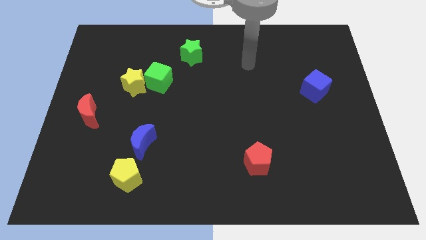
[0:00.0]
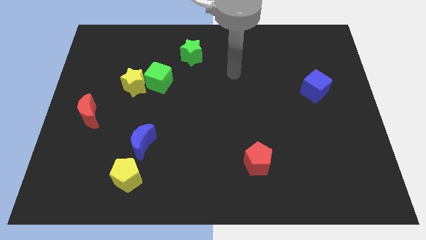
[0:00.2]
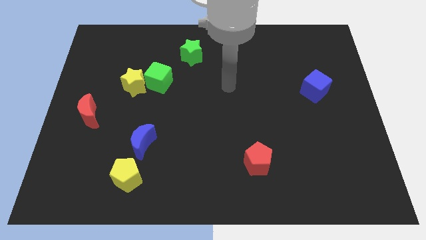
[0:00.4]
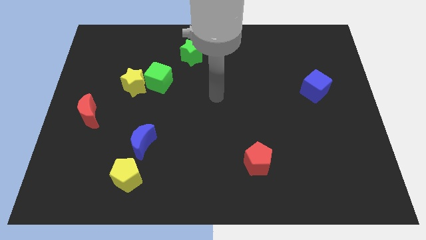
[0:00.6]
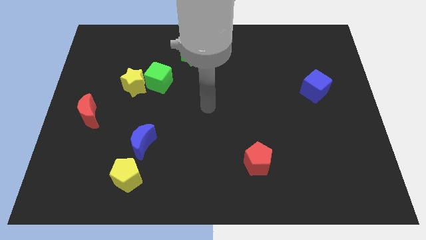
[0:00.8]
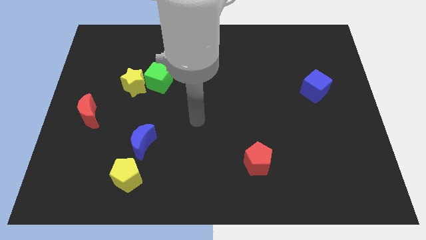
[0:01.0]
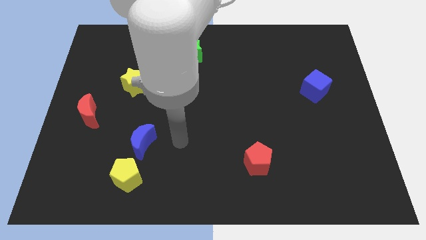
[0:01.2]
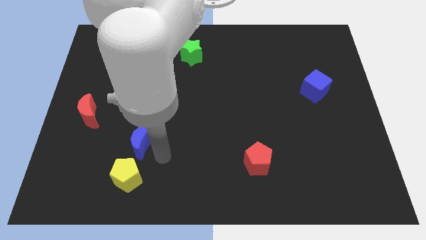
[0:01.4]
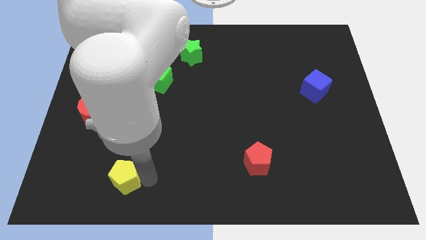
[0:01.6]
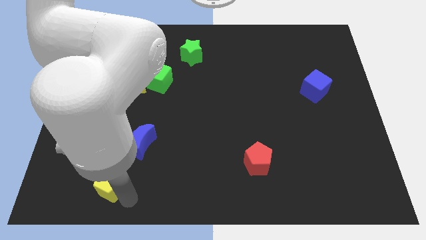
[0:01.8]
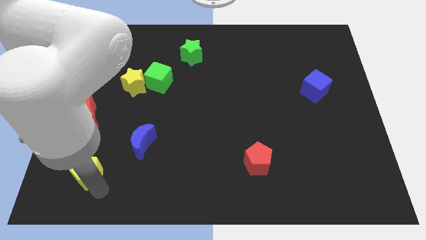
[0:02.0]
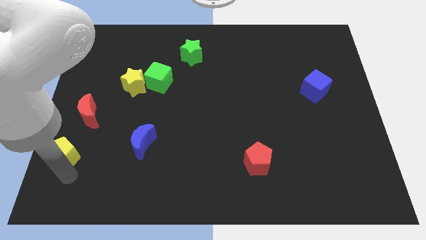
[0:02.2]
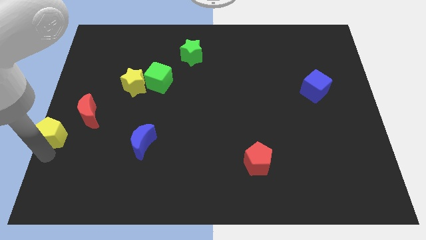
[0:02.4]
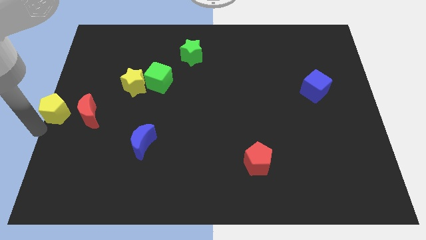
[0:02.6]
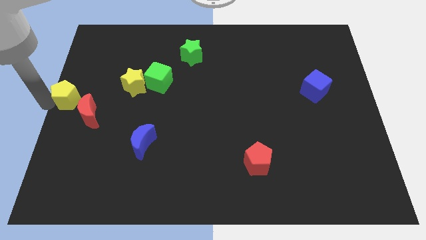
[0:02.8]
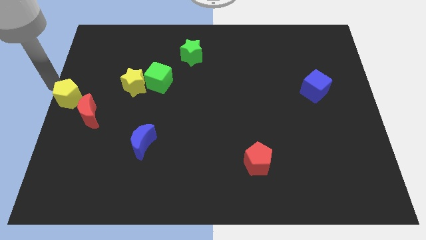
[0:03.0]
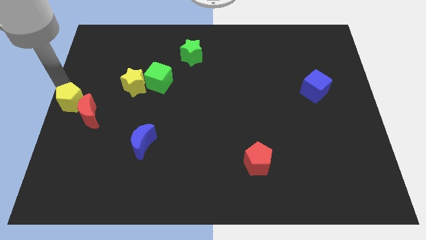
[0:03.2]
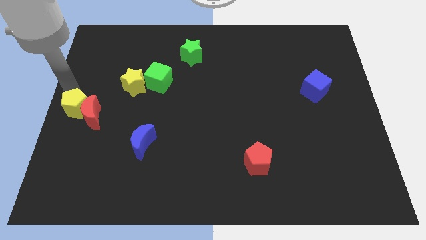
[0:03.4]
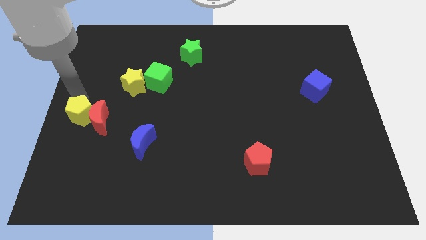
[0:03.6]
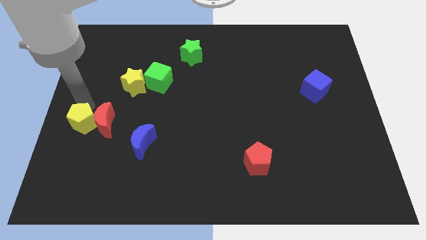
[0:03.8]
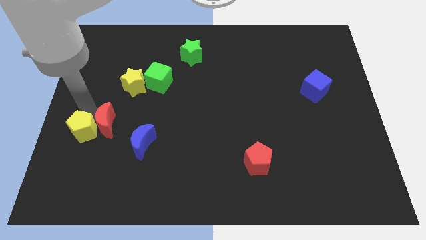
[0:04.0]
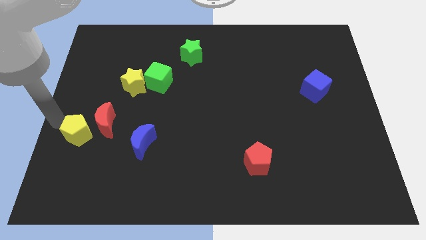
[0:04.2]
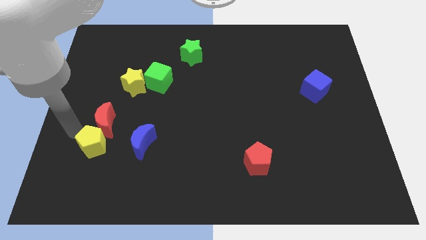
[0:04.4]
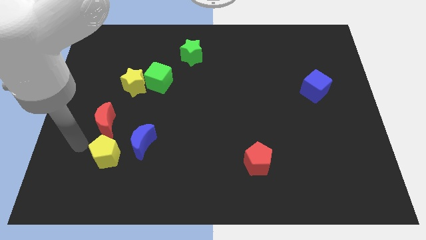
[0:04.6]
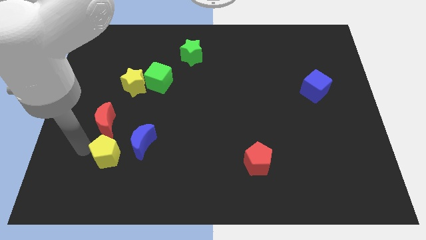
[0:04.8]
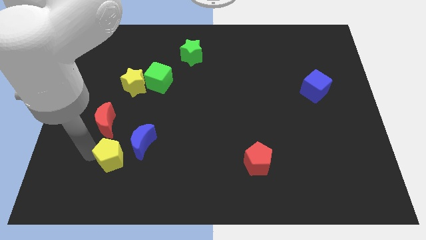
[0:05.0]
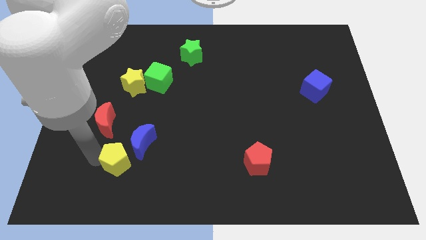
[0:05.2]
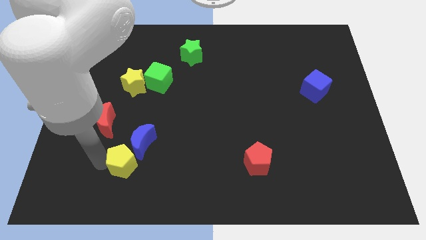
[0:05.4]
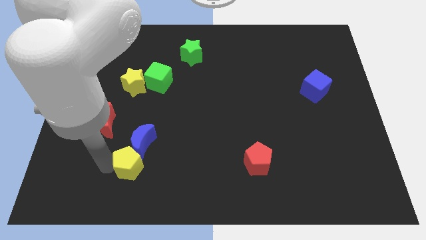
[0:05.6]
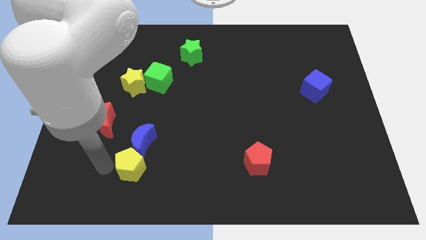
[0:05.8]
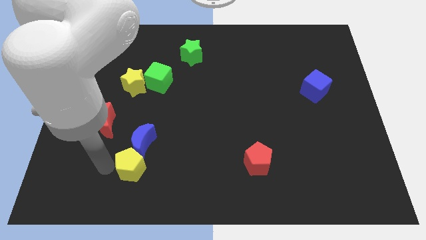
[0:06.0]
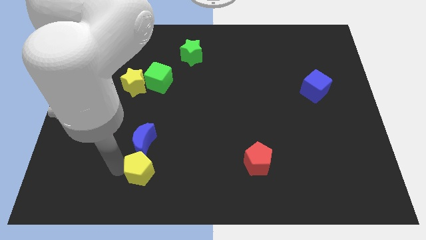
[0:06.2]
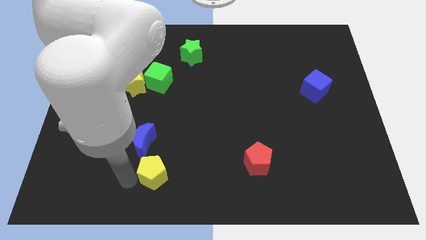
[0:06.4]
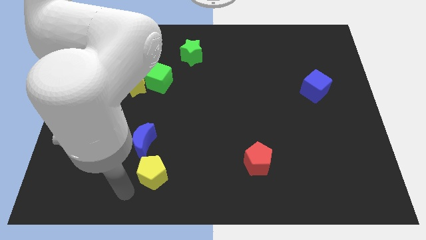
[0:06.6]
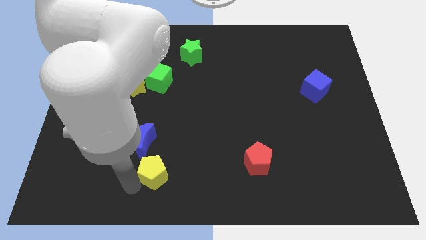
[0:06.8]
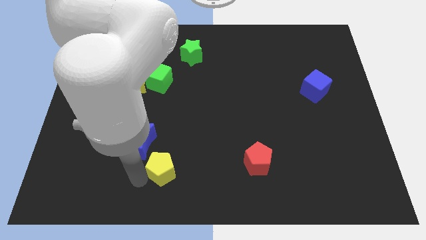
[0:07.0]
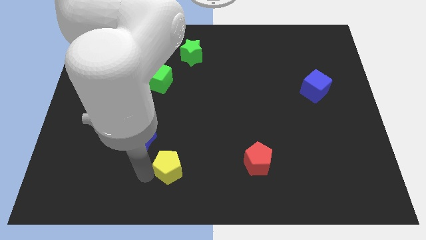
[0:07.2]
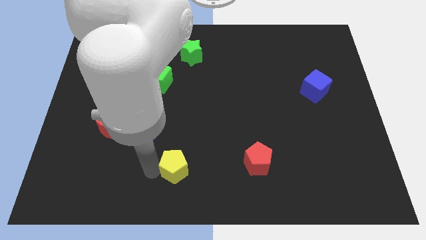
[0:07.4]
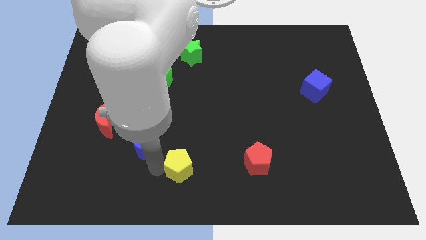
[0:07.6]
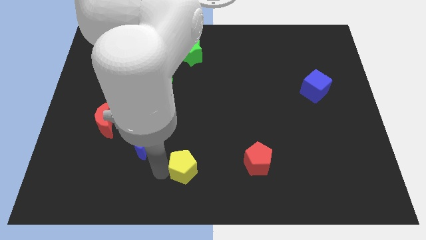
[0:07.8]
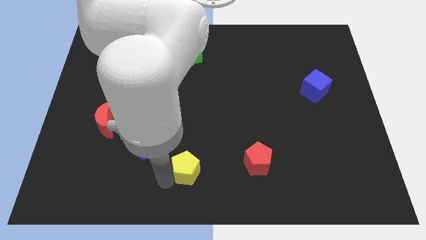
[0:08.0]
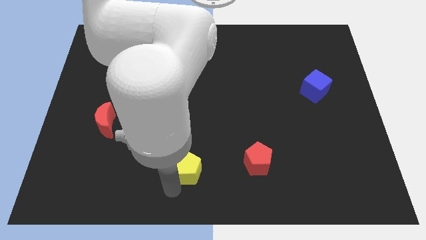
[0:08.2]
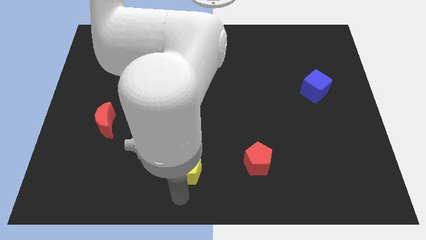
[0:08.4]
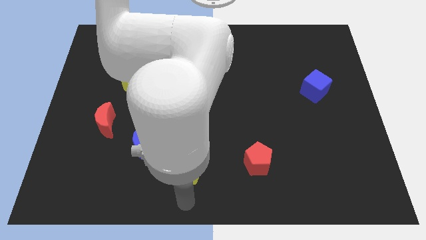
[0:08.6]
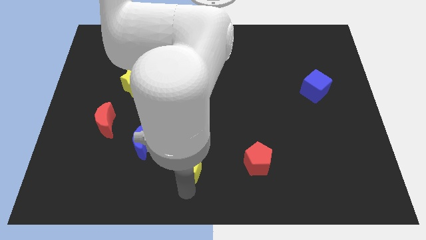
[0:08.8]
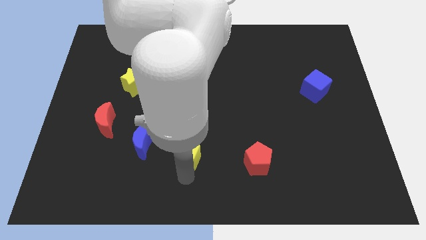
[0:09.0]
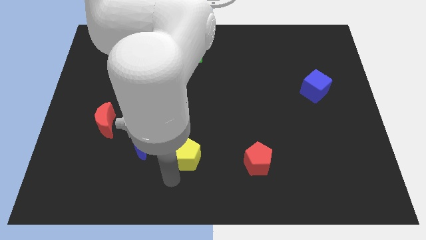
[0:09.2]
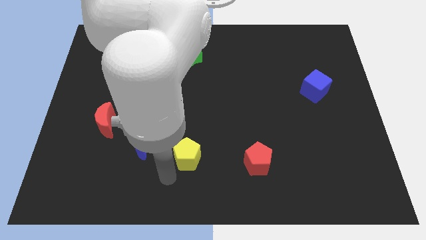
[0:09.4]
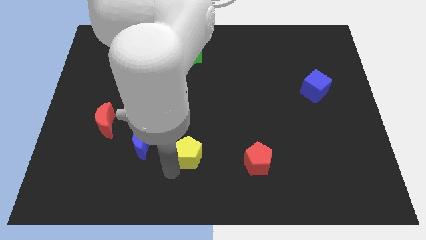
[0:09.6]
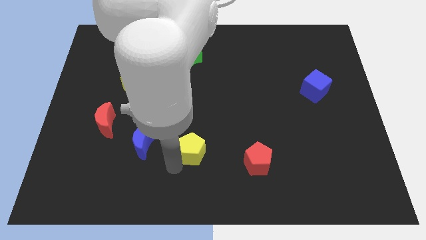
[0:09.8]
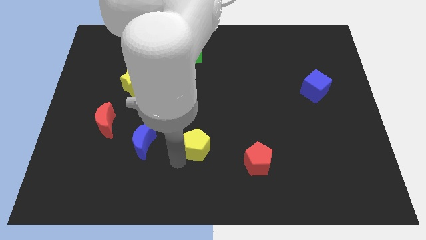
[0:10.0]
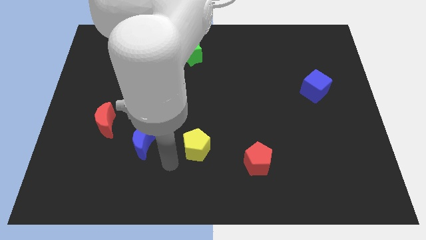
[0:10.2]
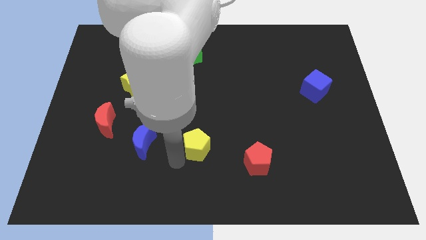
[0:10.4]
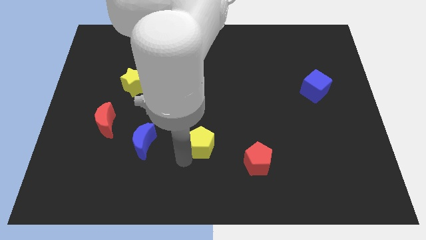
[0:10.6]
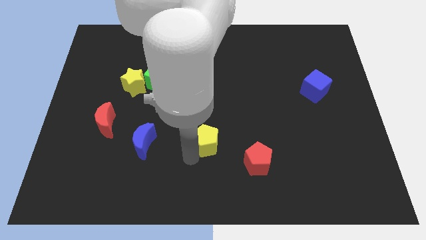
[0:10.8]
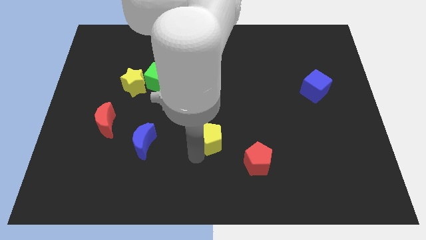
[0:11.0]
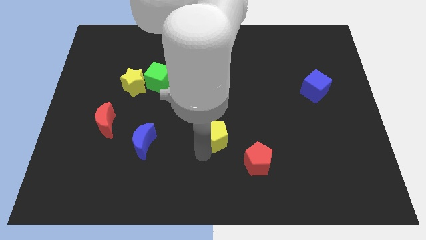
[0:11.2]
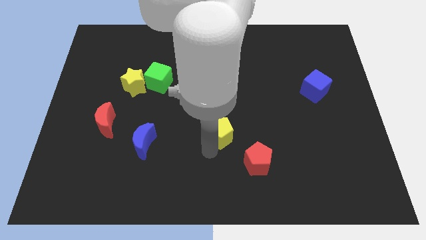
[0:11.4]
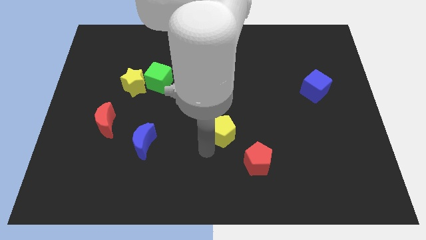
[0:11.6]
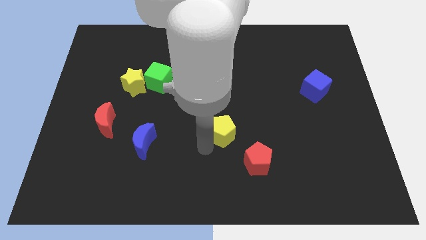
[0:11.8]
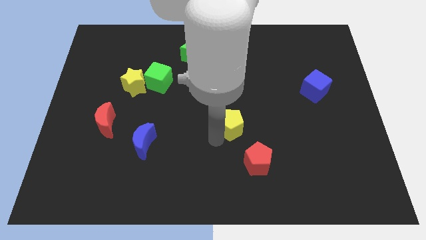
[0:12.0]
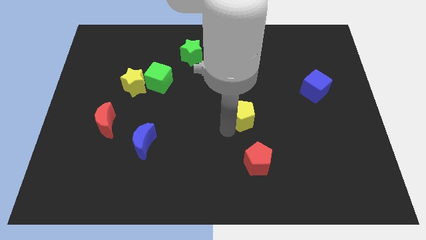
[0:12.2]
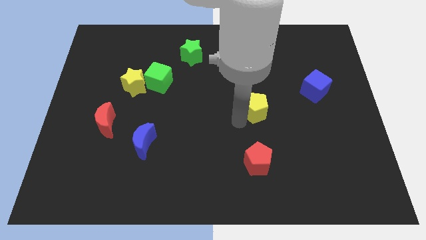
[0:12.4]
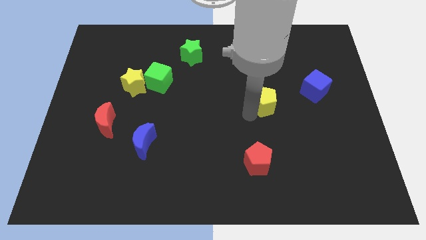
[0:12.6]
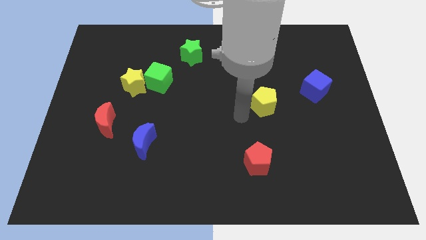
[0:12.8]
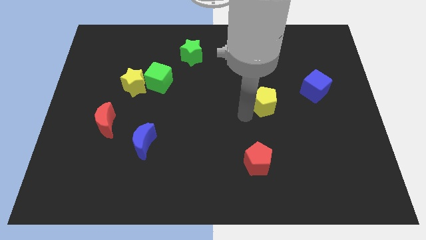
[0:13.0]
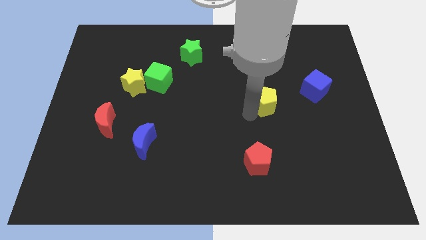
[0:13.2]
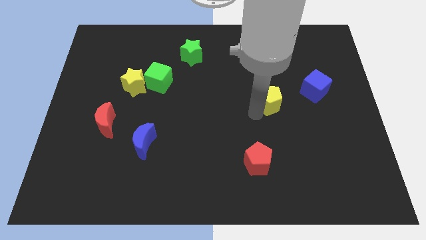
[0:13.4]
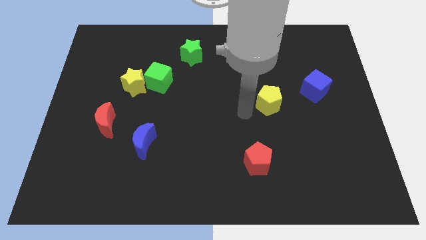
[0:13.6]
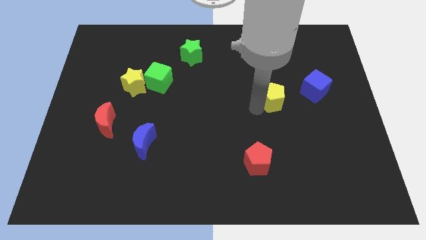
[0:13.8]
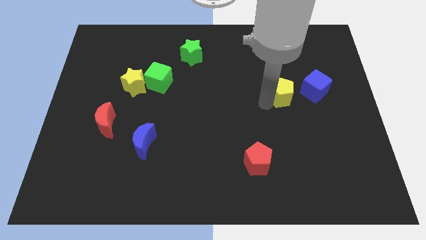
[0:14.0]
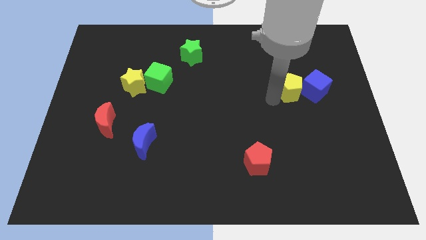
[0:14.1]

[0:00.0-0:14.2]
put the yellow pentagon close to the blue cube
